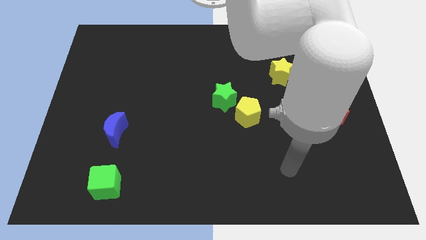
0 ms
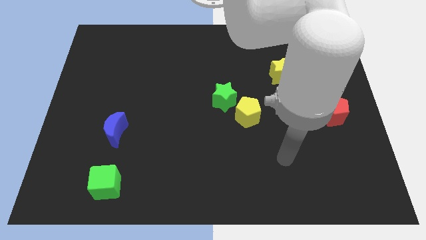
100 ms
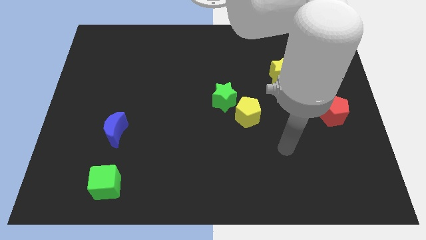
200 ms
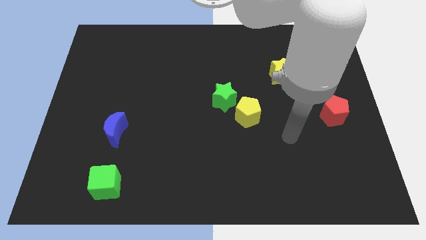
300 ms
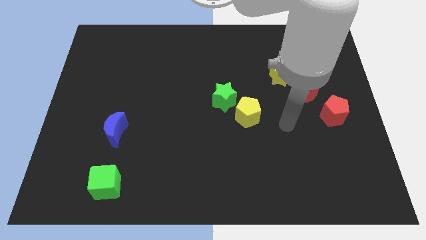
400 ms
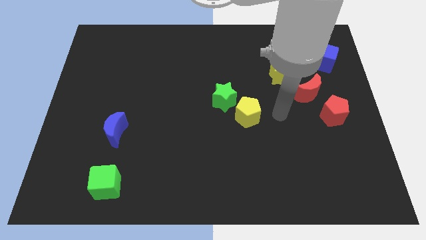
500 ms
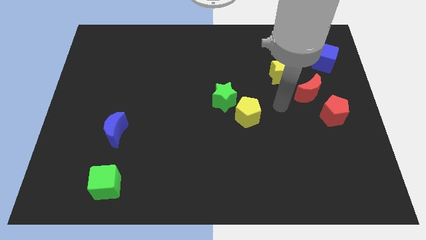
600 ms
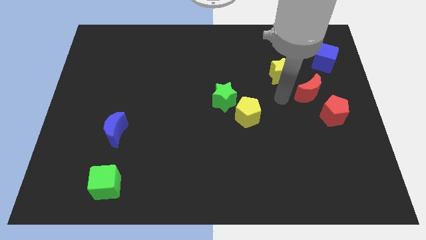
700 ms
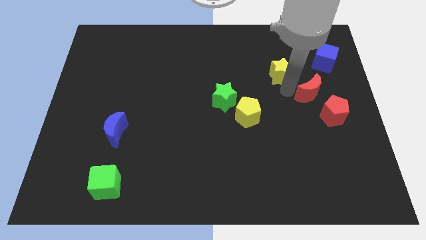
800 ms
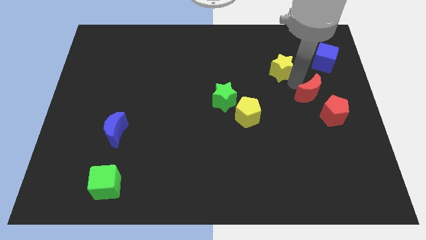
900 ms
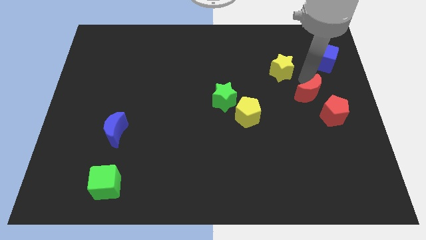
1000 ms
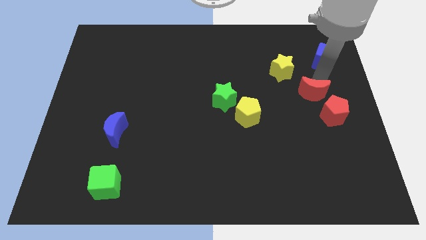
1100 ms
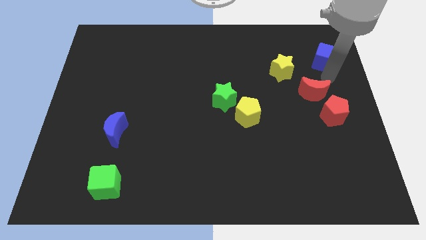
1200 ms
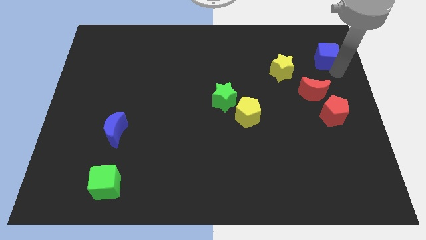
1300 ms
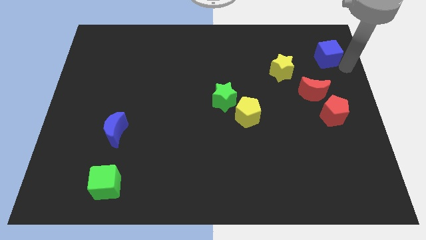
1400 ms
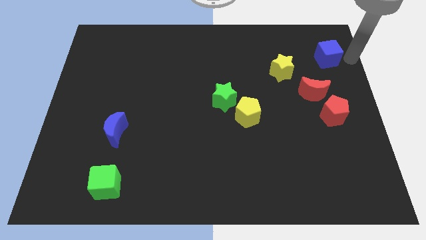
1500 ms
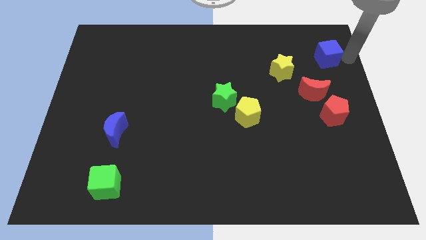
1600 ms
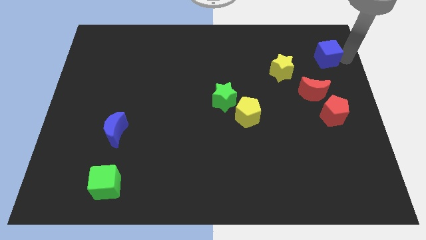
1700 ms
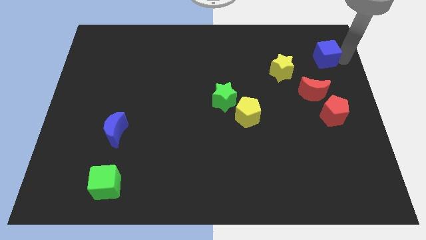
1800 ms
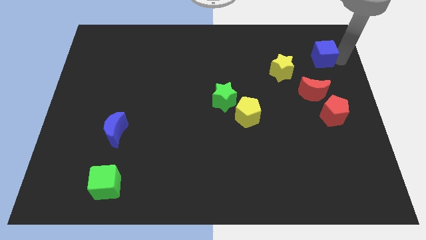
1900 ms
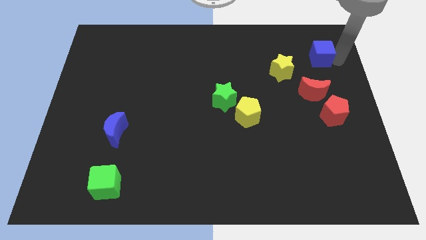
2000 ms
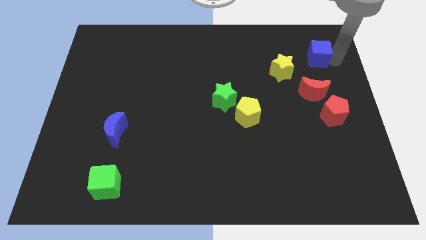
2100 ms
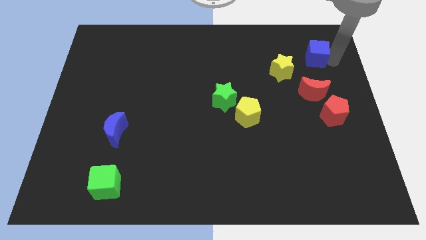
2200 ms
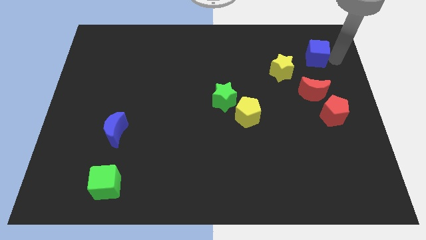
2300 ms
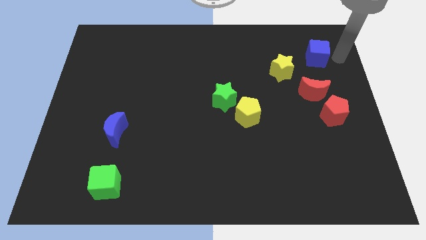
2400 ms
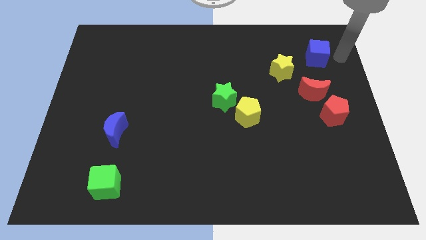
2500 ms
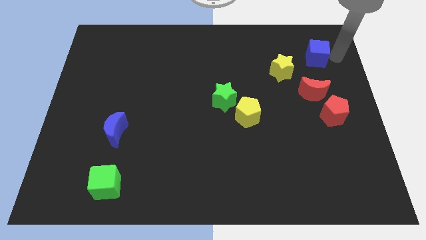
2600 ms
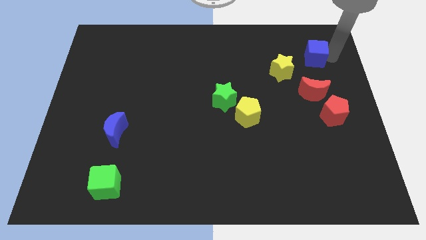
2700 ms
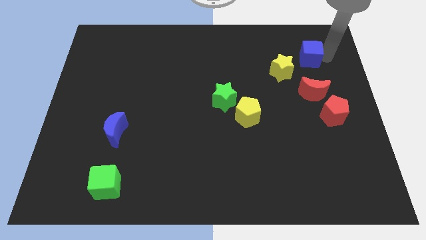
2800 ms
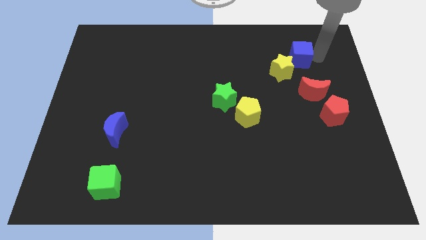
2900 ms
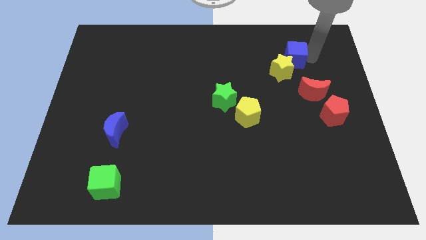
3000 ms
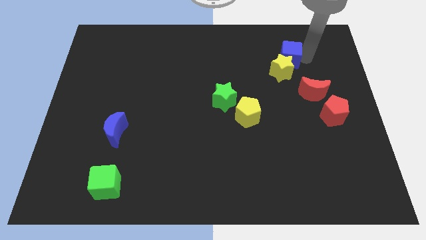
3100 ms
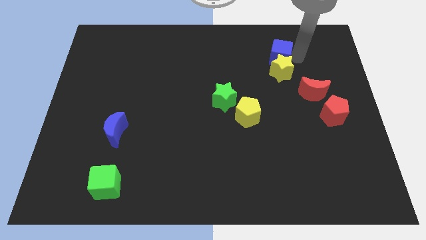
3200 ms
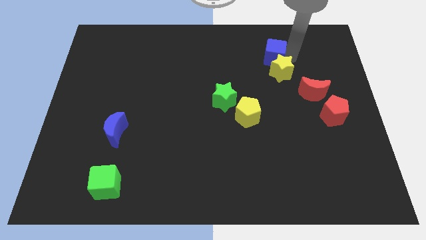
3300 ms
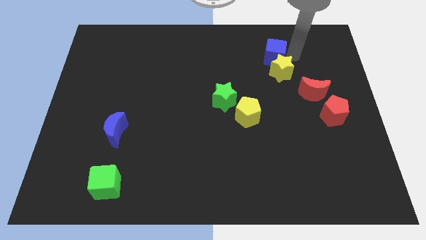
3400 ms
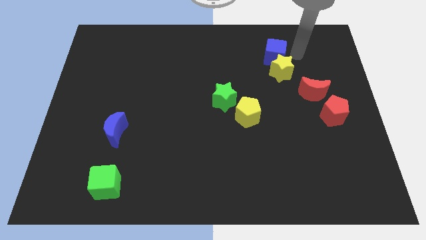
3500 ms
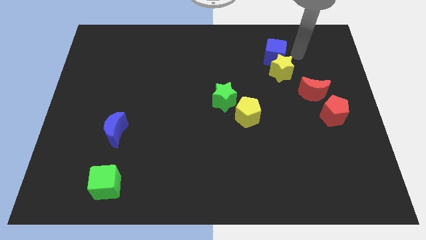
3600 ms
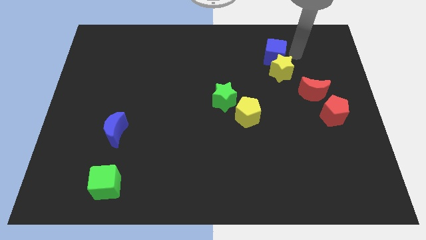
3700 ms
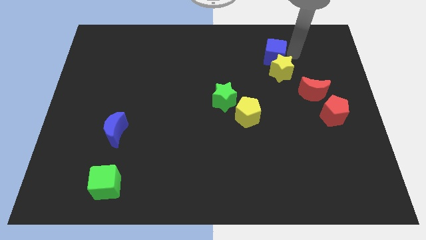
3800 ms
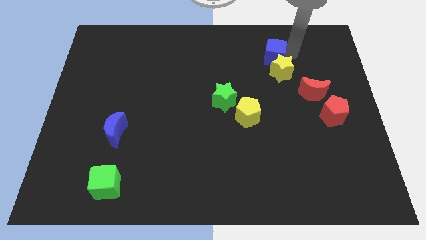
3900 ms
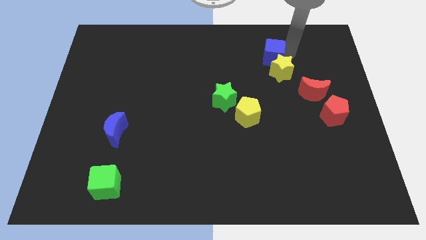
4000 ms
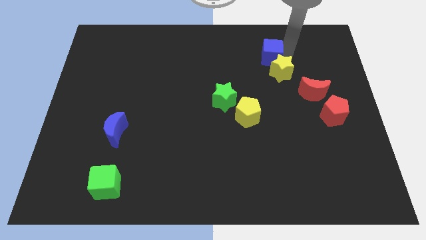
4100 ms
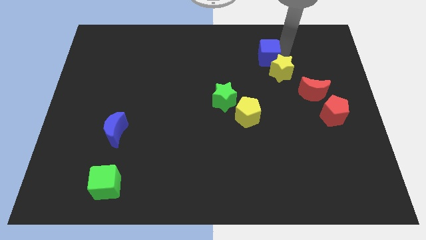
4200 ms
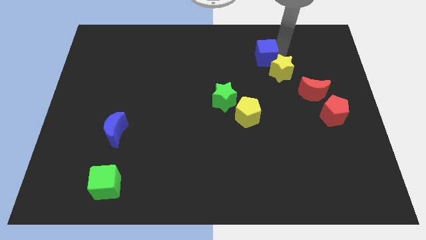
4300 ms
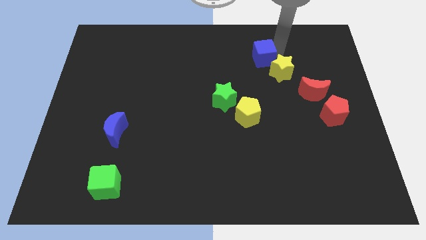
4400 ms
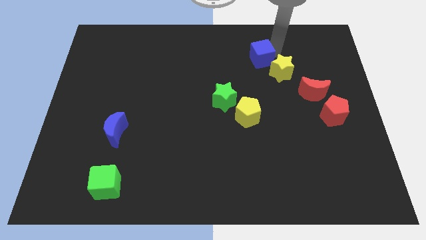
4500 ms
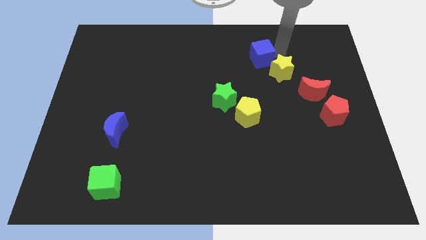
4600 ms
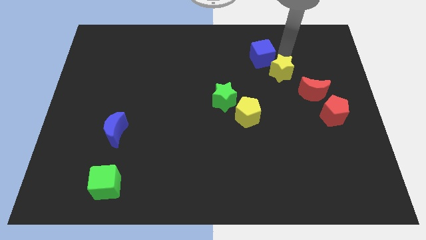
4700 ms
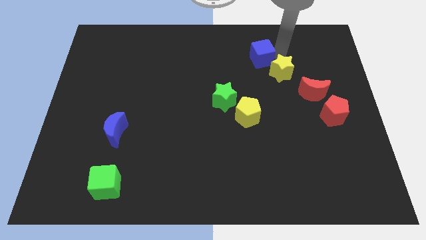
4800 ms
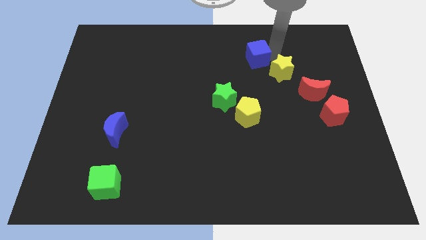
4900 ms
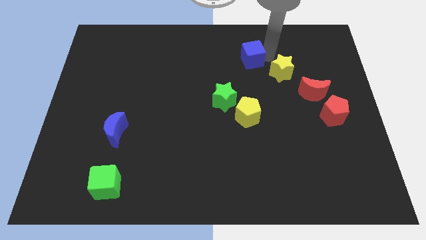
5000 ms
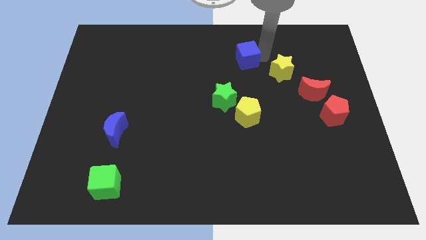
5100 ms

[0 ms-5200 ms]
move the blue cube left

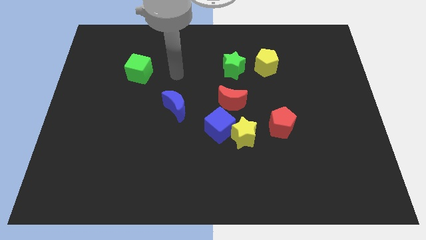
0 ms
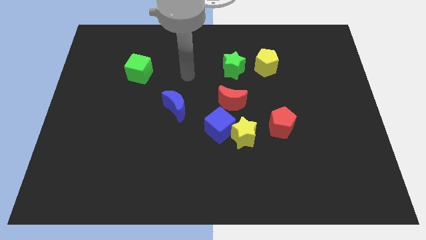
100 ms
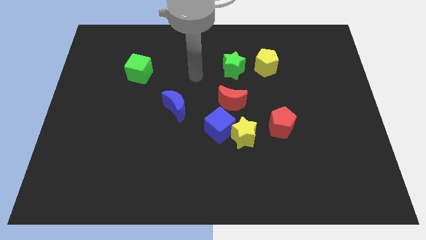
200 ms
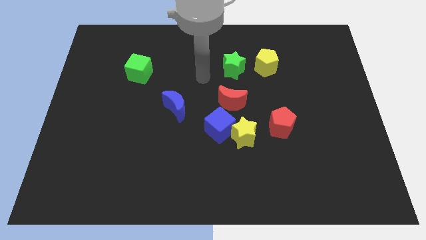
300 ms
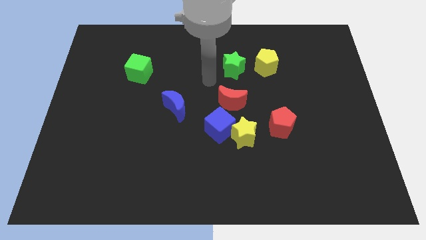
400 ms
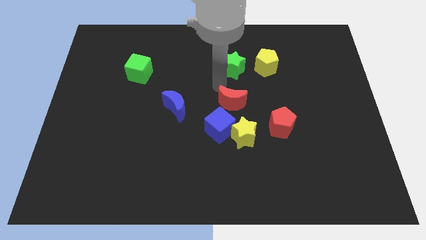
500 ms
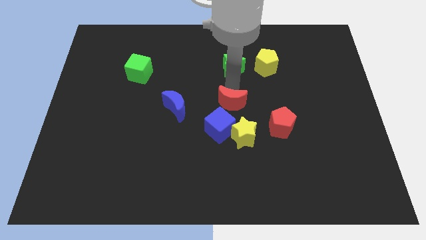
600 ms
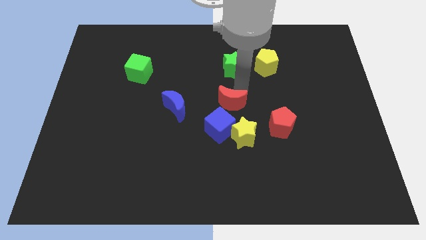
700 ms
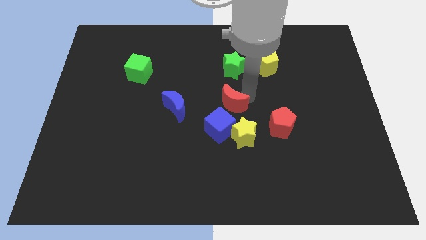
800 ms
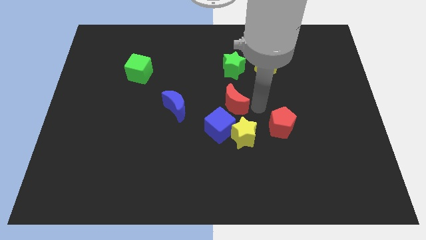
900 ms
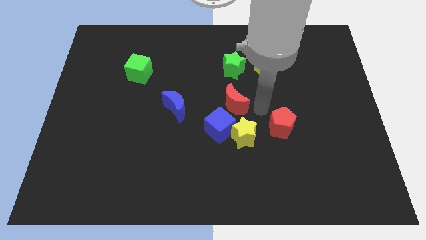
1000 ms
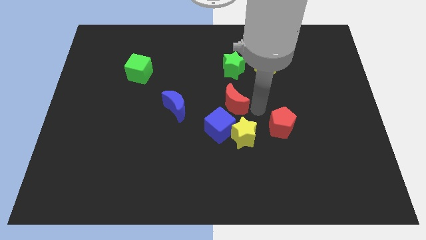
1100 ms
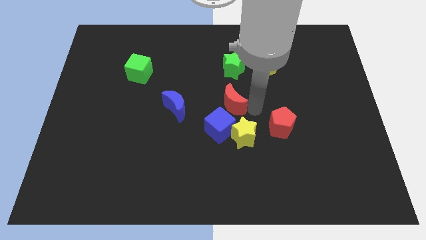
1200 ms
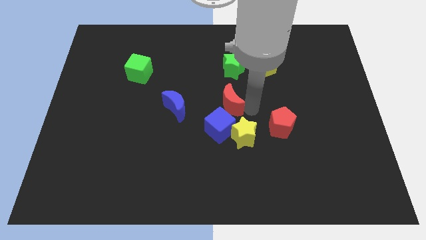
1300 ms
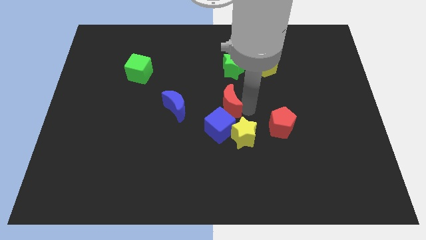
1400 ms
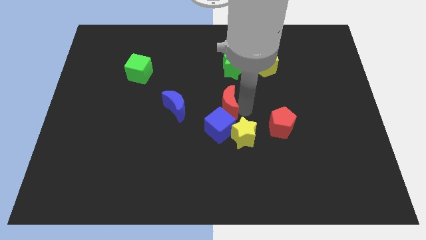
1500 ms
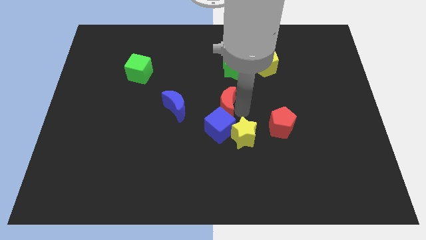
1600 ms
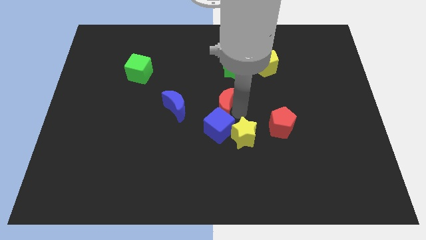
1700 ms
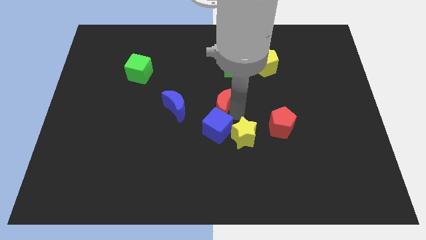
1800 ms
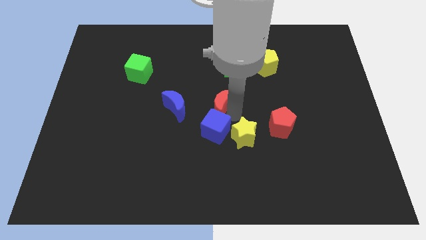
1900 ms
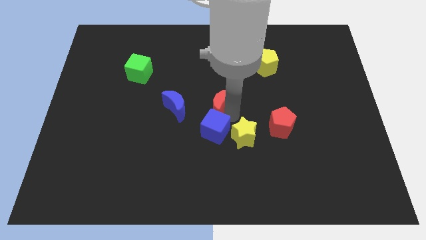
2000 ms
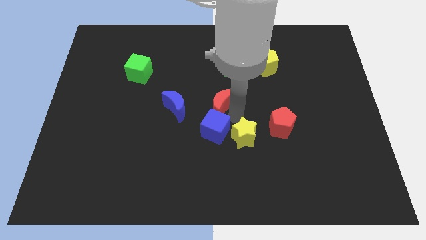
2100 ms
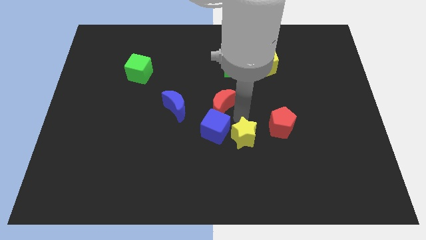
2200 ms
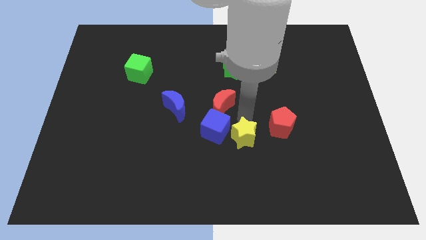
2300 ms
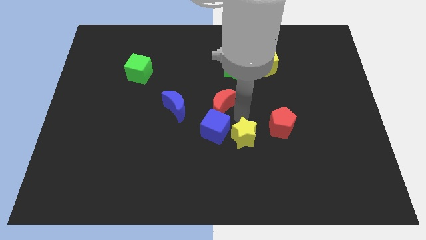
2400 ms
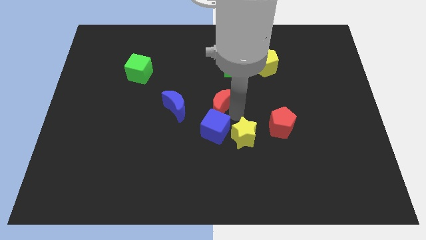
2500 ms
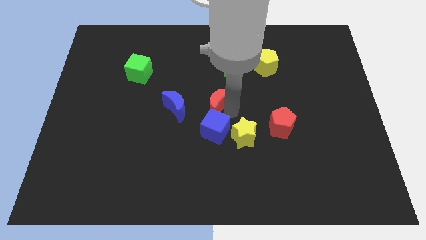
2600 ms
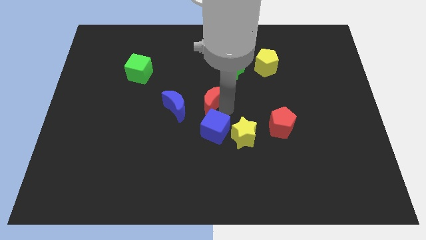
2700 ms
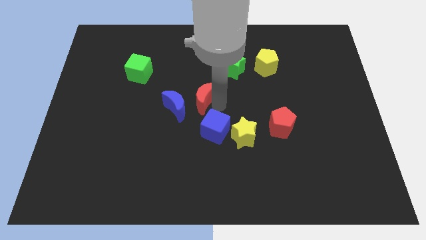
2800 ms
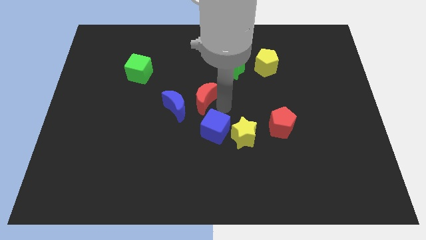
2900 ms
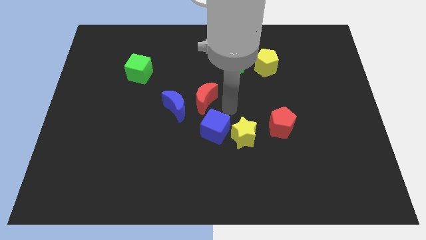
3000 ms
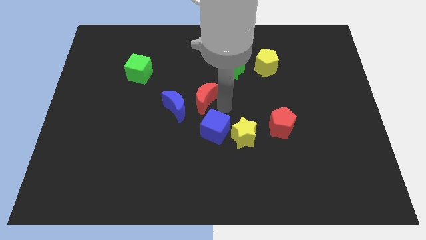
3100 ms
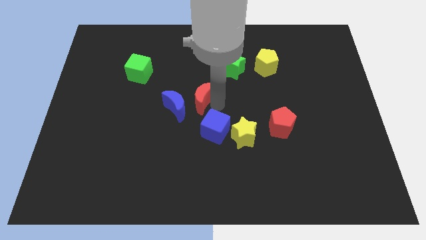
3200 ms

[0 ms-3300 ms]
slightly move the red moon left
